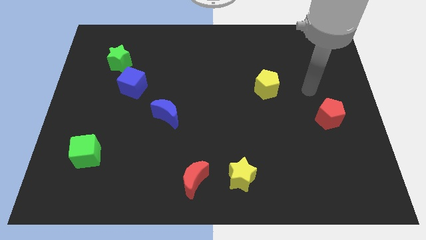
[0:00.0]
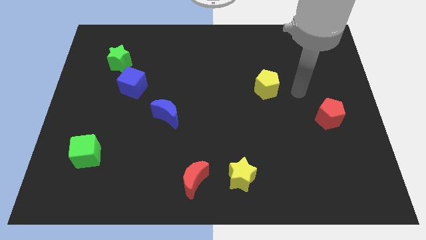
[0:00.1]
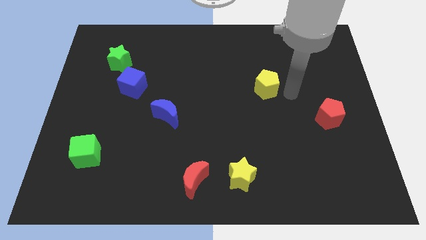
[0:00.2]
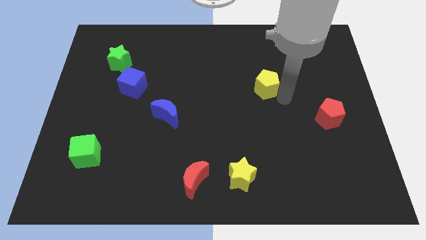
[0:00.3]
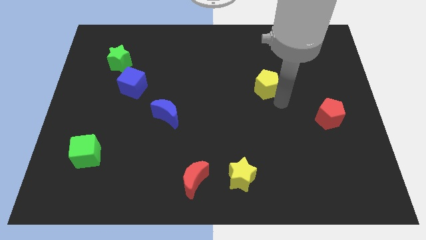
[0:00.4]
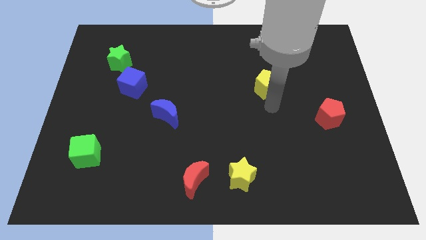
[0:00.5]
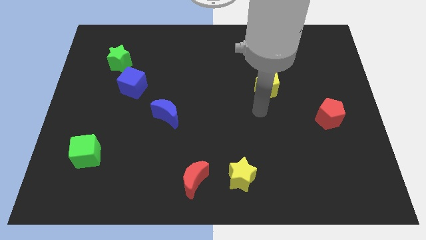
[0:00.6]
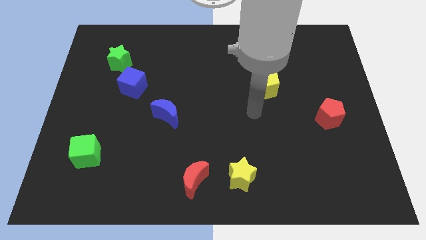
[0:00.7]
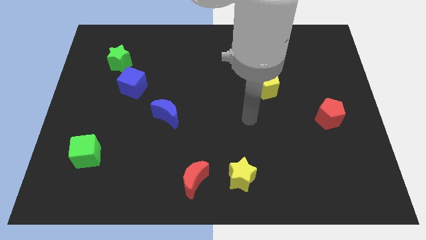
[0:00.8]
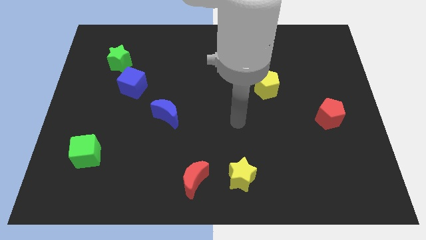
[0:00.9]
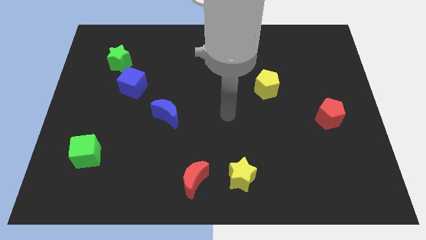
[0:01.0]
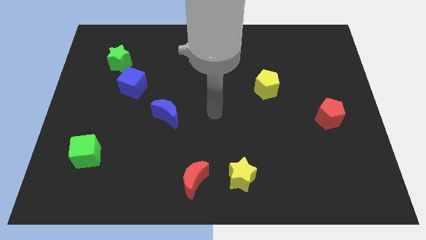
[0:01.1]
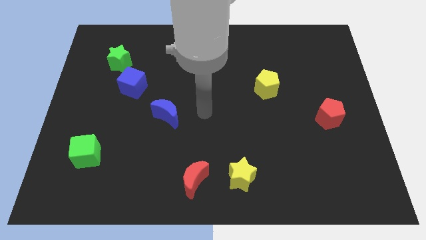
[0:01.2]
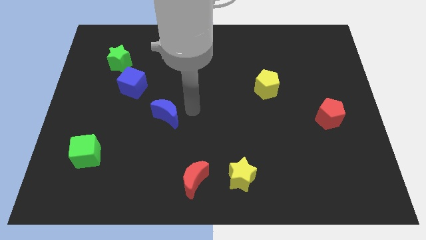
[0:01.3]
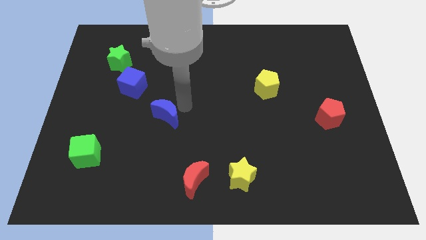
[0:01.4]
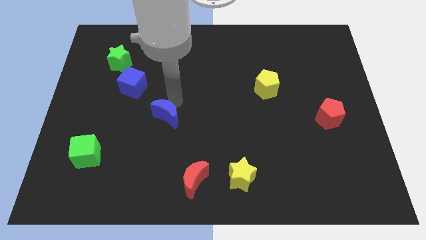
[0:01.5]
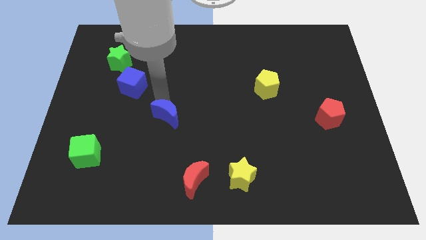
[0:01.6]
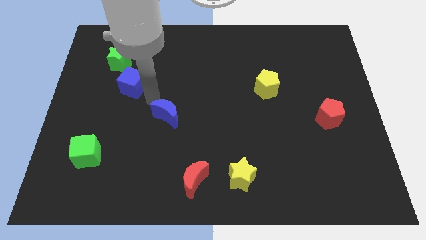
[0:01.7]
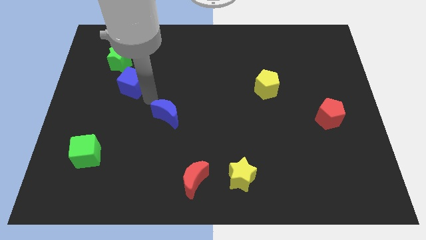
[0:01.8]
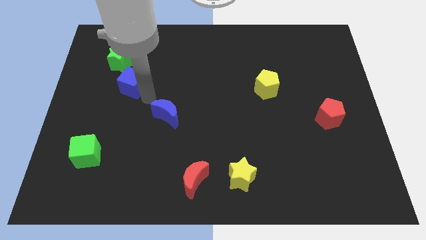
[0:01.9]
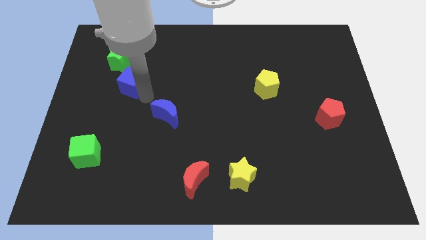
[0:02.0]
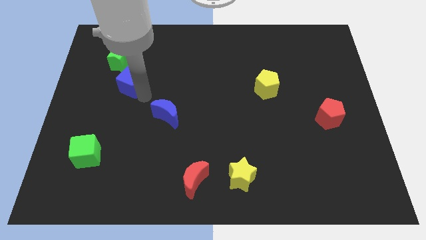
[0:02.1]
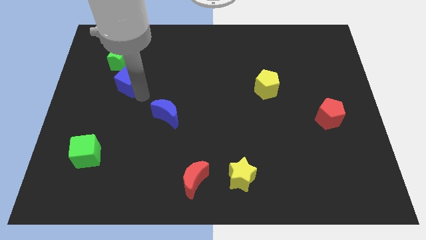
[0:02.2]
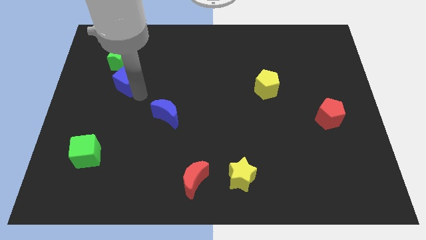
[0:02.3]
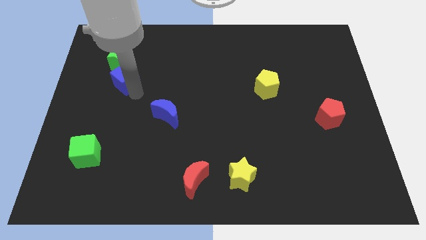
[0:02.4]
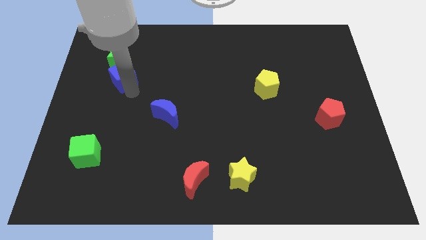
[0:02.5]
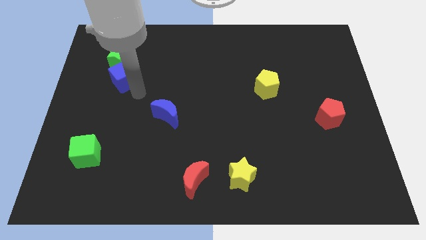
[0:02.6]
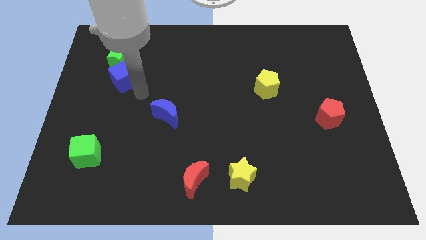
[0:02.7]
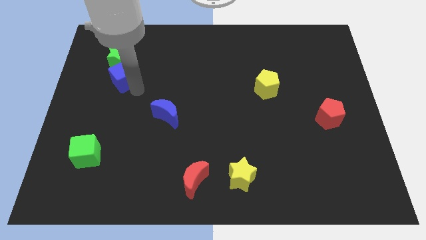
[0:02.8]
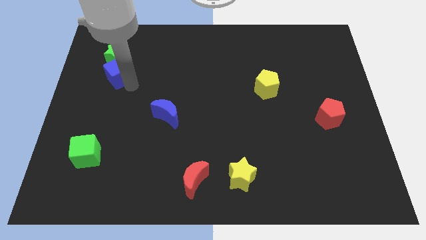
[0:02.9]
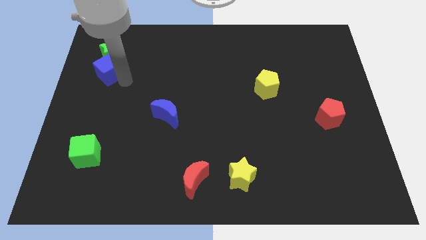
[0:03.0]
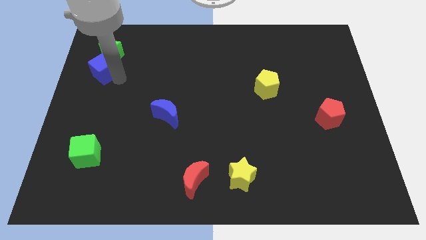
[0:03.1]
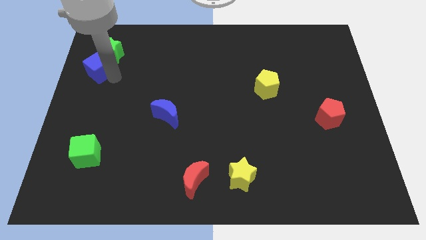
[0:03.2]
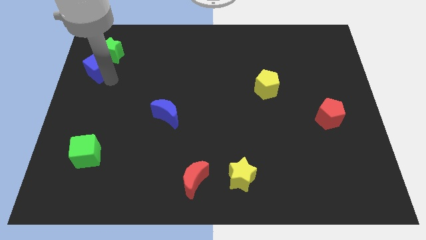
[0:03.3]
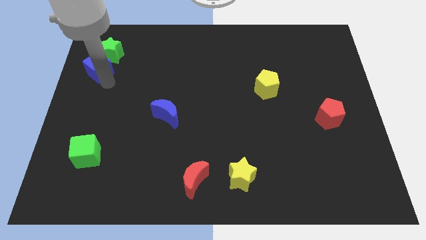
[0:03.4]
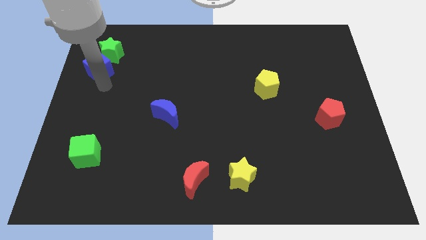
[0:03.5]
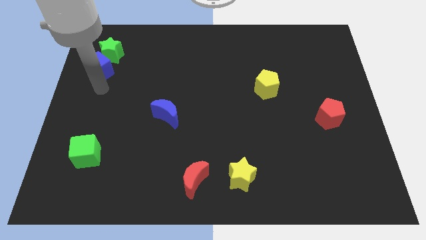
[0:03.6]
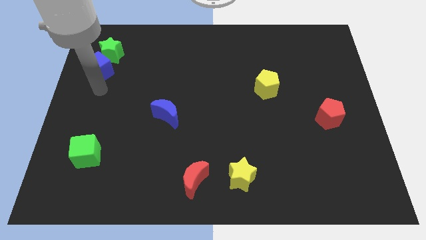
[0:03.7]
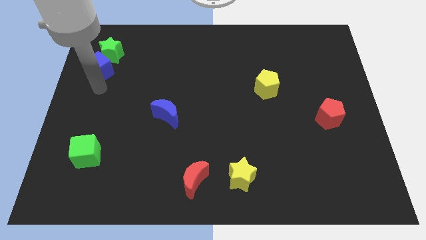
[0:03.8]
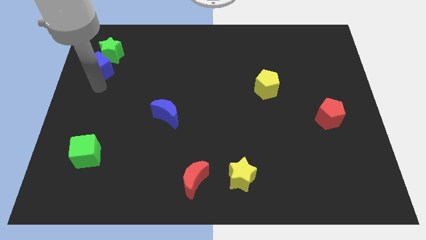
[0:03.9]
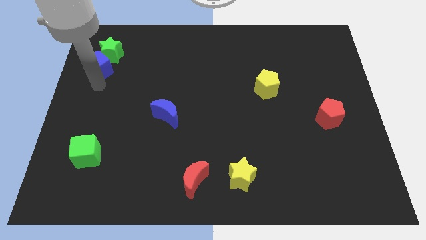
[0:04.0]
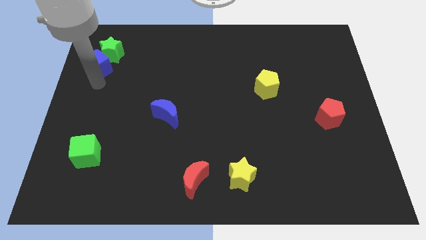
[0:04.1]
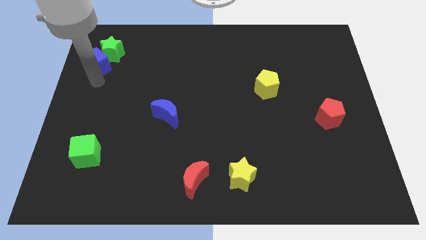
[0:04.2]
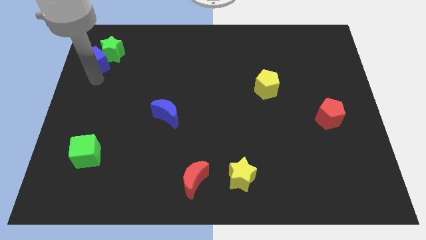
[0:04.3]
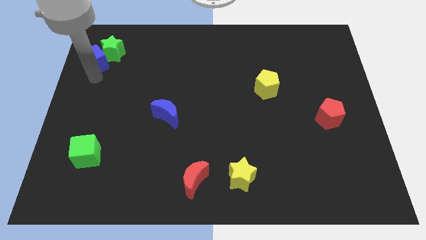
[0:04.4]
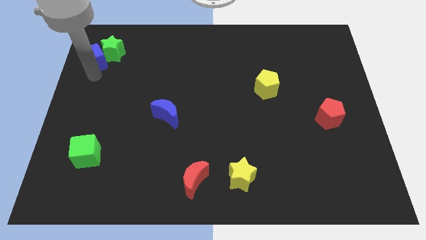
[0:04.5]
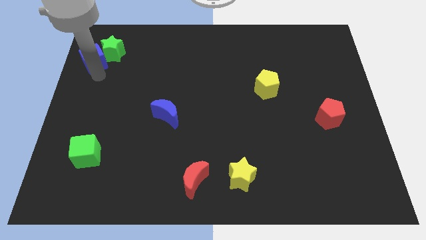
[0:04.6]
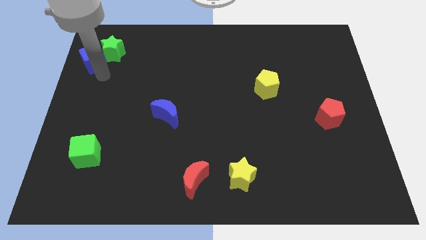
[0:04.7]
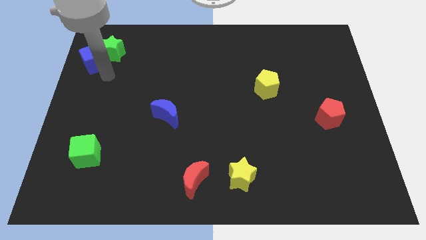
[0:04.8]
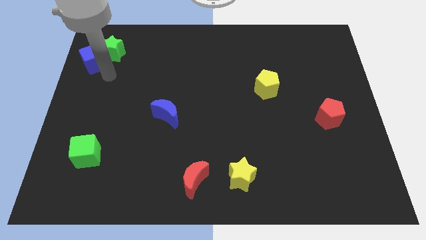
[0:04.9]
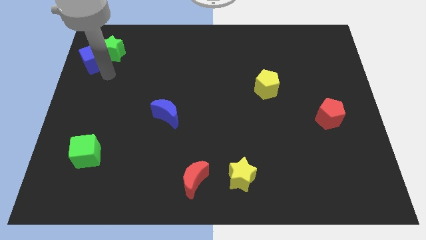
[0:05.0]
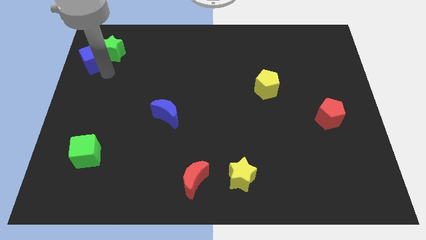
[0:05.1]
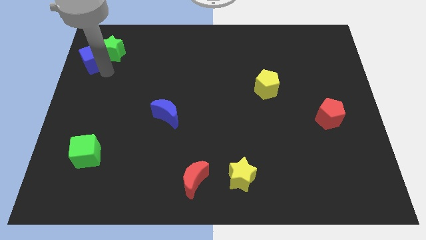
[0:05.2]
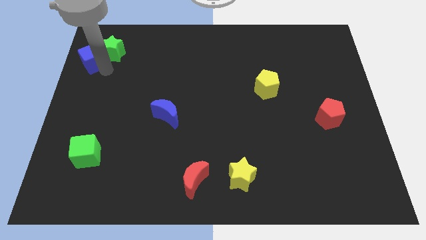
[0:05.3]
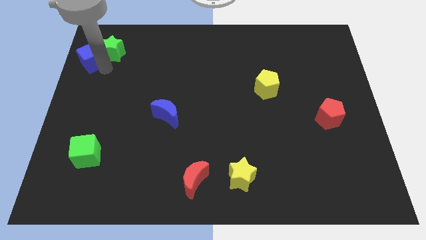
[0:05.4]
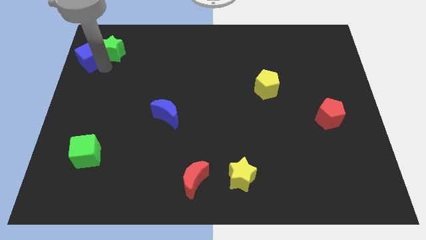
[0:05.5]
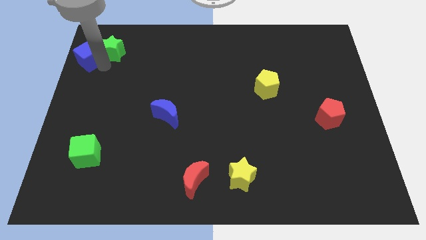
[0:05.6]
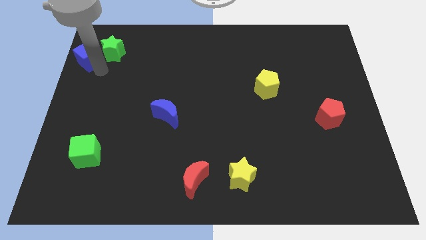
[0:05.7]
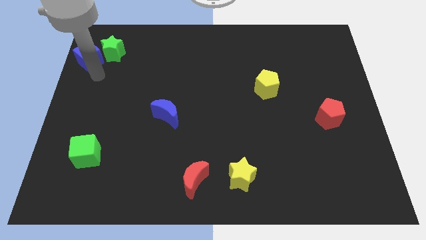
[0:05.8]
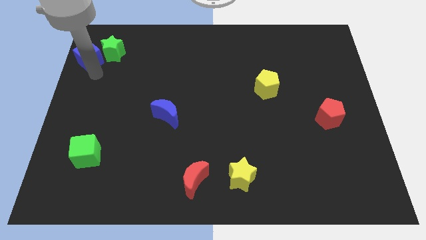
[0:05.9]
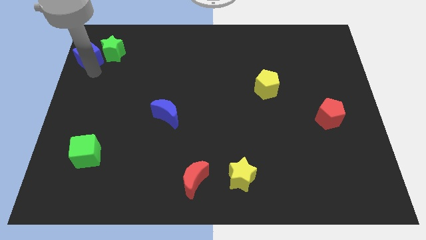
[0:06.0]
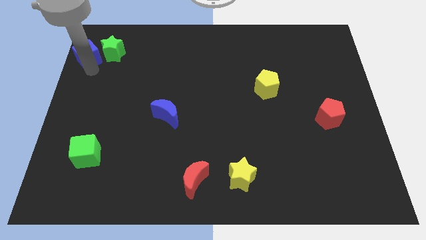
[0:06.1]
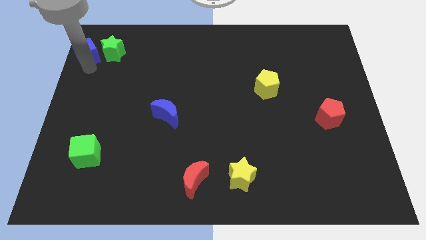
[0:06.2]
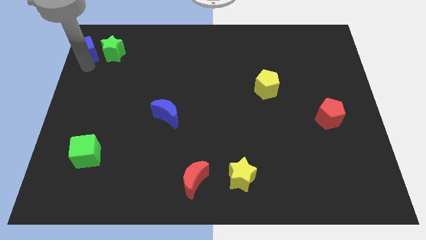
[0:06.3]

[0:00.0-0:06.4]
put the blue cube to the top left corner

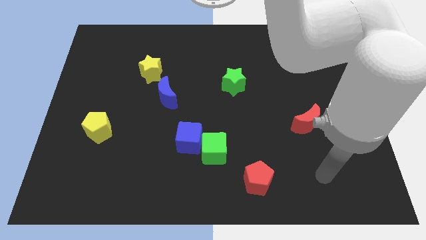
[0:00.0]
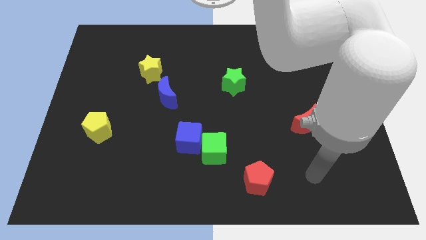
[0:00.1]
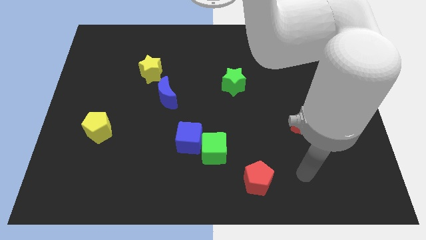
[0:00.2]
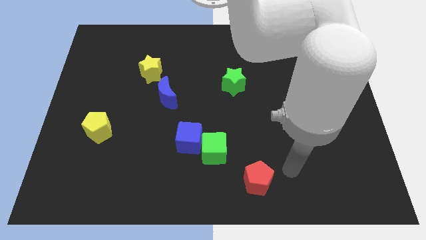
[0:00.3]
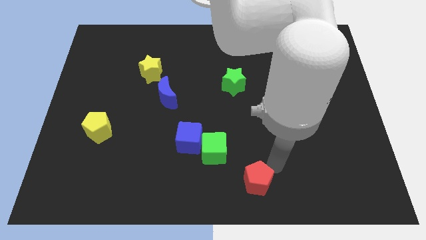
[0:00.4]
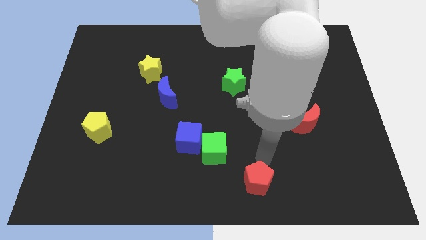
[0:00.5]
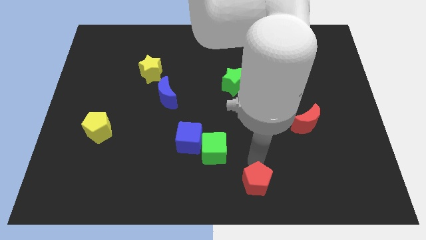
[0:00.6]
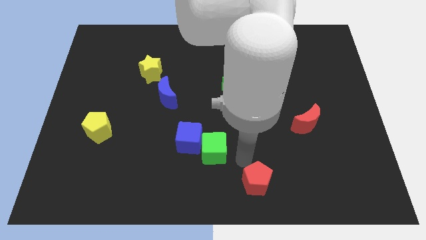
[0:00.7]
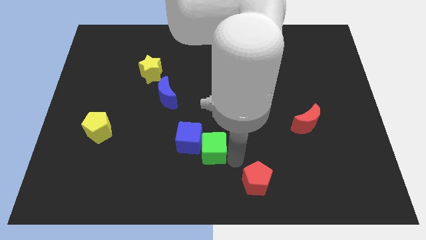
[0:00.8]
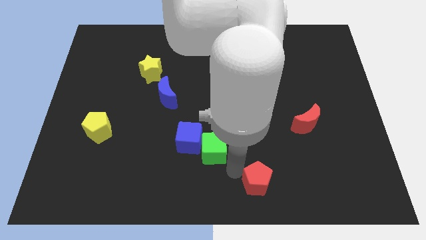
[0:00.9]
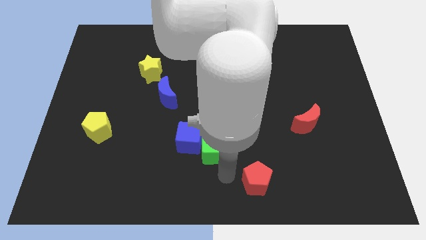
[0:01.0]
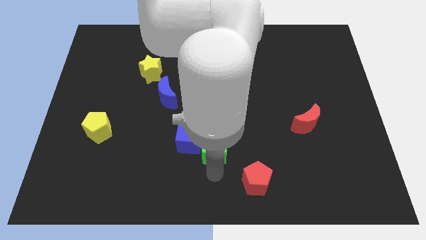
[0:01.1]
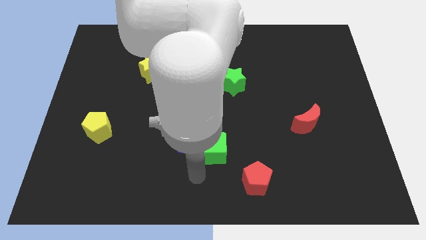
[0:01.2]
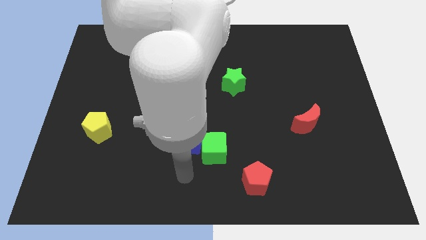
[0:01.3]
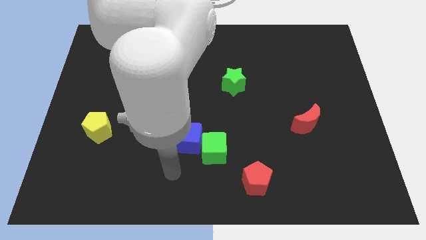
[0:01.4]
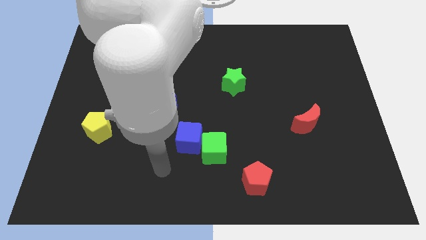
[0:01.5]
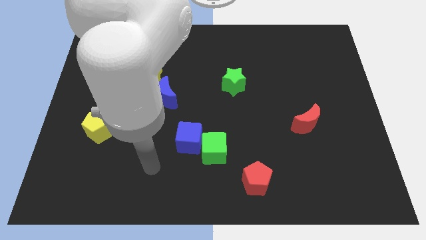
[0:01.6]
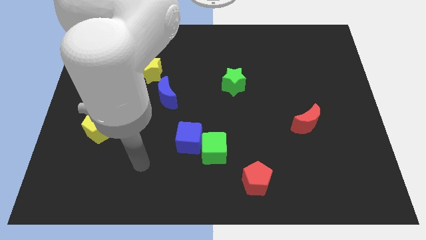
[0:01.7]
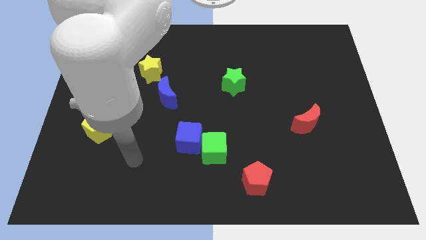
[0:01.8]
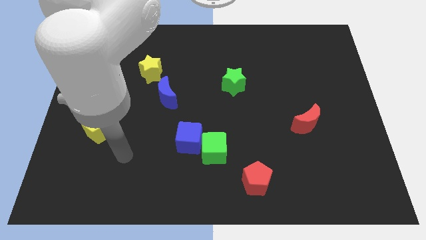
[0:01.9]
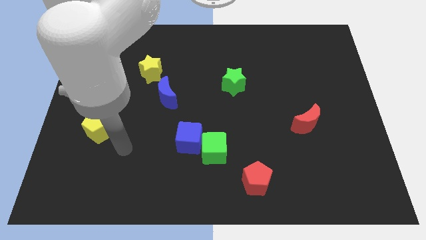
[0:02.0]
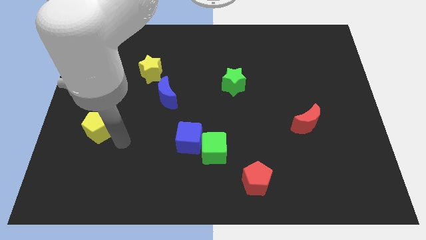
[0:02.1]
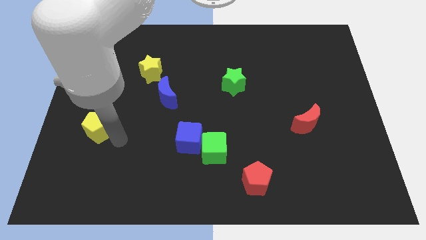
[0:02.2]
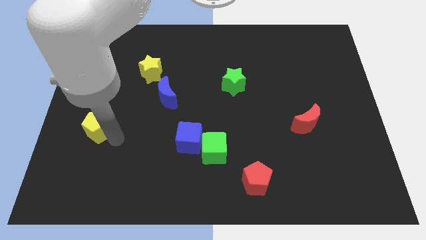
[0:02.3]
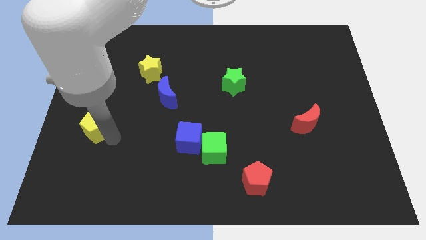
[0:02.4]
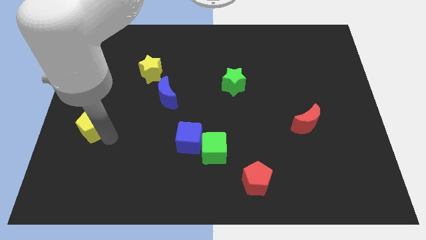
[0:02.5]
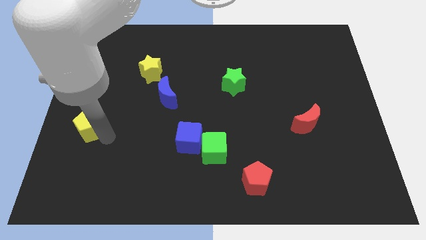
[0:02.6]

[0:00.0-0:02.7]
push the yellow pentagon to the center left
